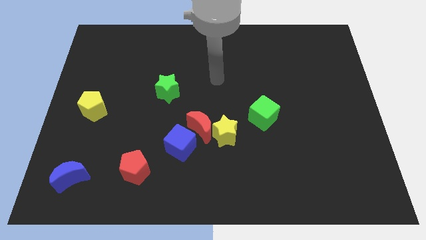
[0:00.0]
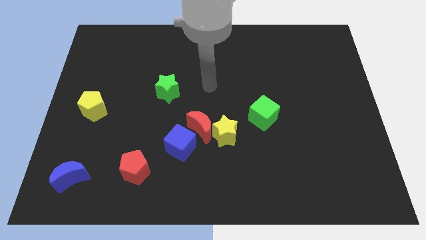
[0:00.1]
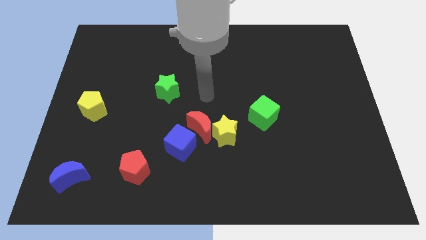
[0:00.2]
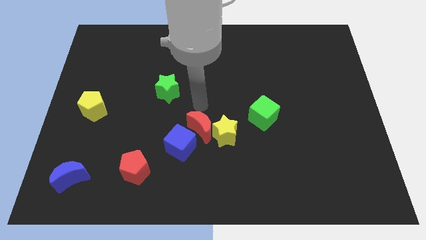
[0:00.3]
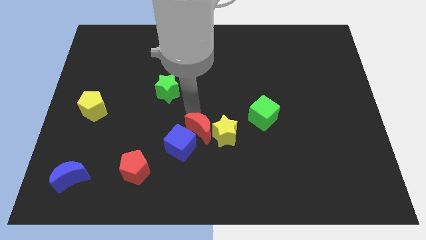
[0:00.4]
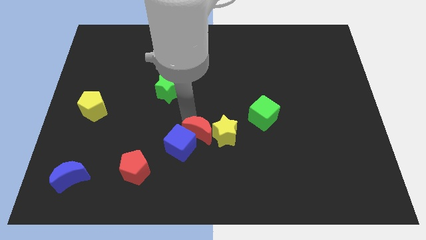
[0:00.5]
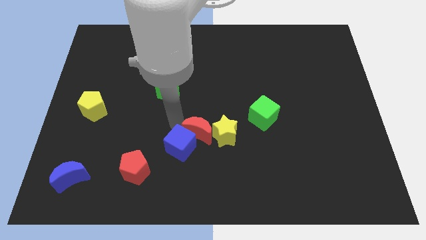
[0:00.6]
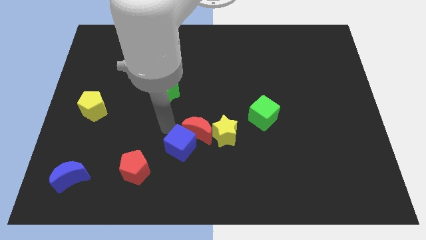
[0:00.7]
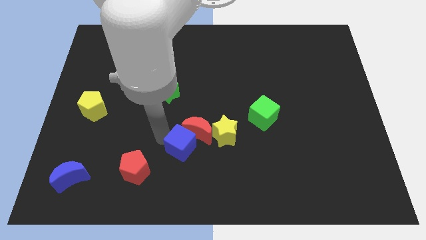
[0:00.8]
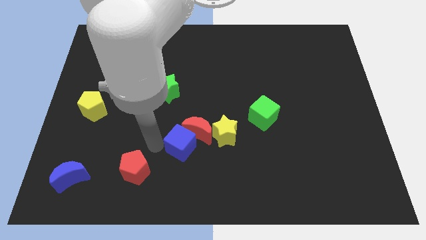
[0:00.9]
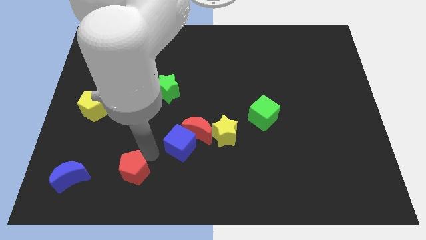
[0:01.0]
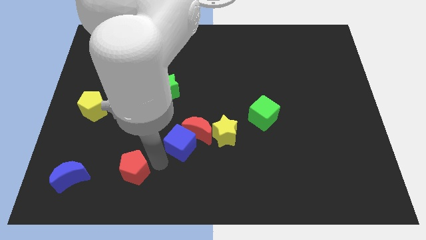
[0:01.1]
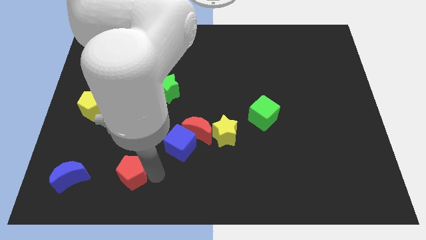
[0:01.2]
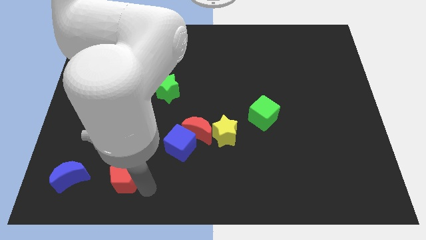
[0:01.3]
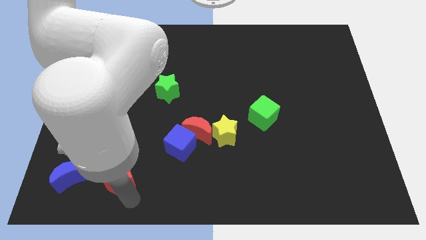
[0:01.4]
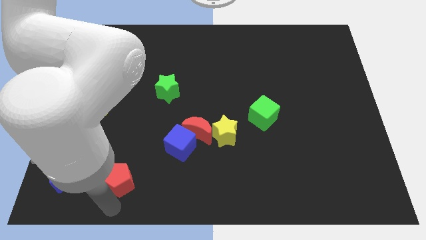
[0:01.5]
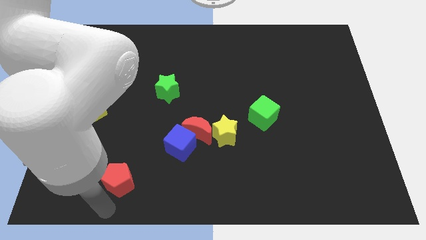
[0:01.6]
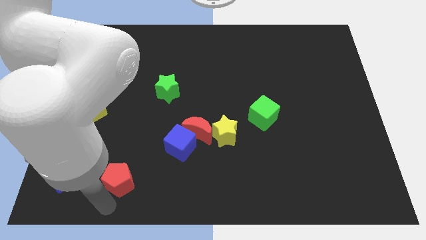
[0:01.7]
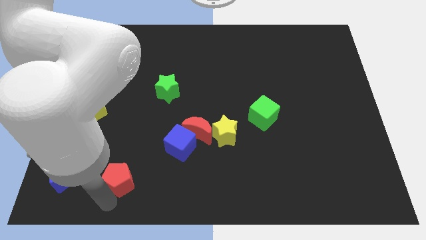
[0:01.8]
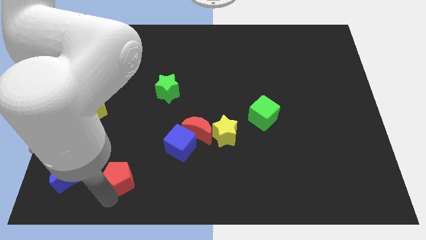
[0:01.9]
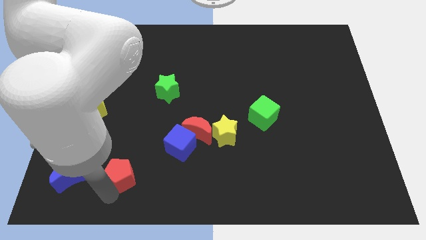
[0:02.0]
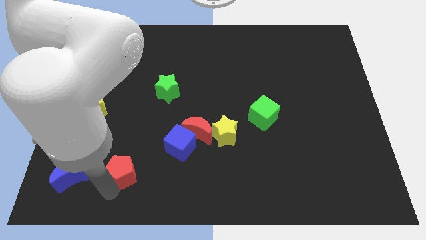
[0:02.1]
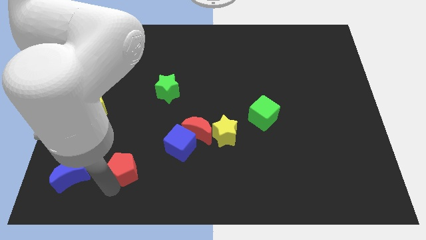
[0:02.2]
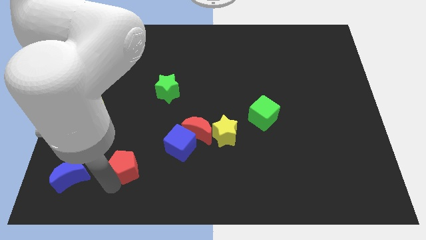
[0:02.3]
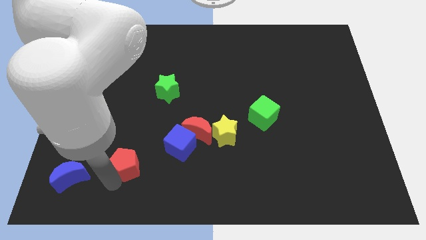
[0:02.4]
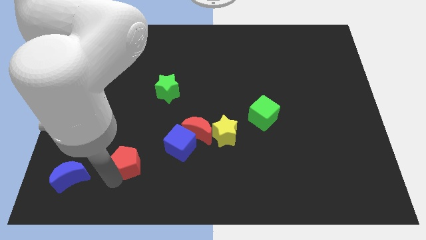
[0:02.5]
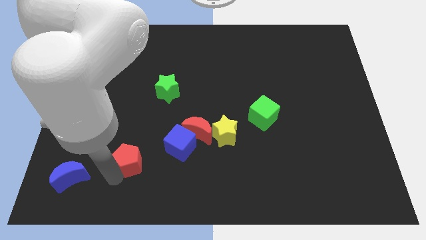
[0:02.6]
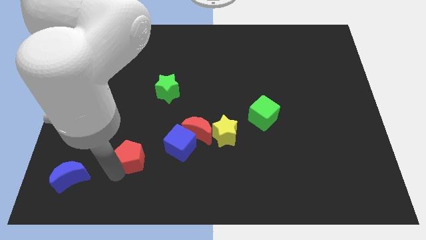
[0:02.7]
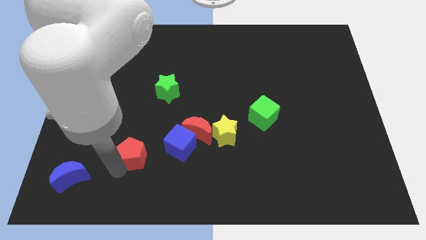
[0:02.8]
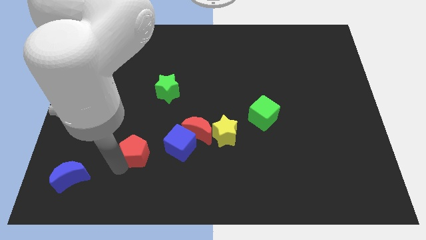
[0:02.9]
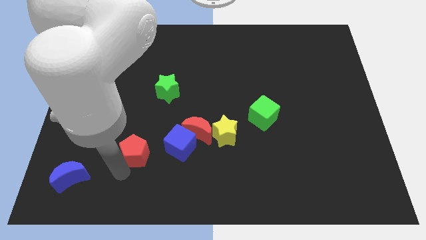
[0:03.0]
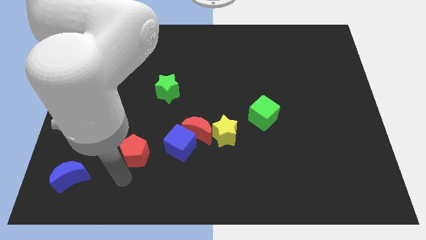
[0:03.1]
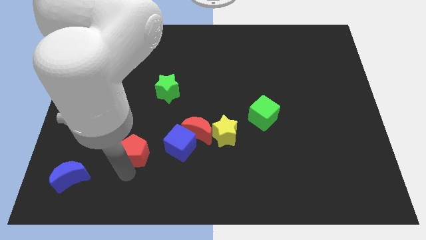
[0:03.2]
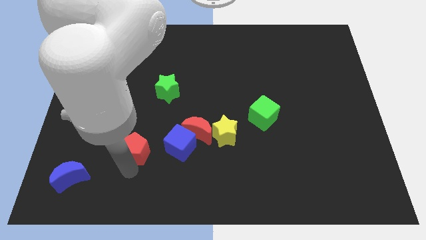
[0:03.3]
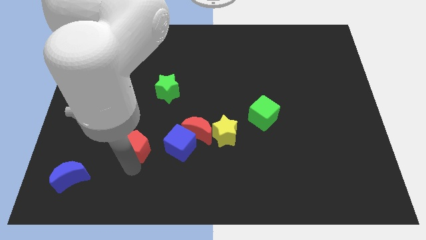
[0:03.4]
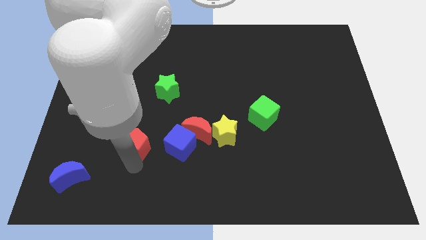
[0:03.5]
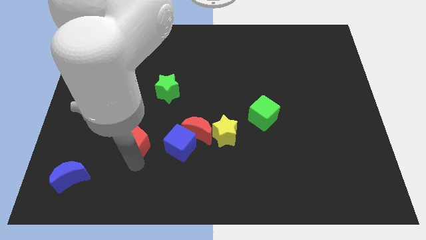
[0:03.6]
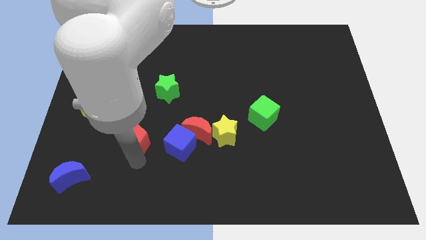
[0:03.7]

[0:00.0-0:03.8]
slightly push the red pentagon upwards

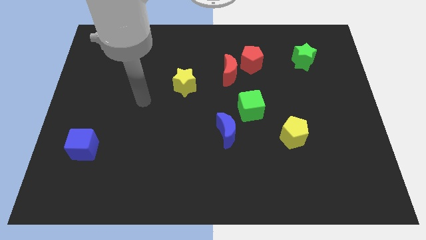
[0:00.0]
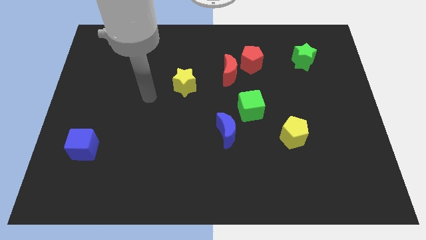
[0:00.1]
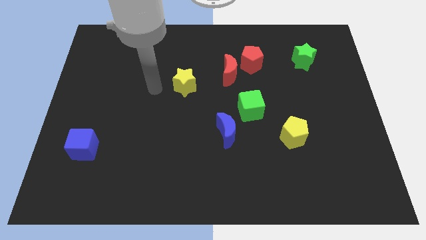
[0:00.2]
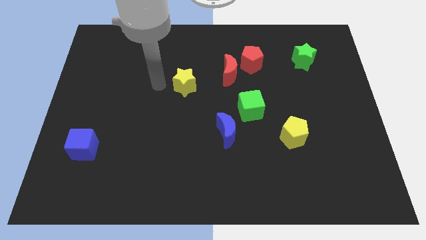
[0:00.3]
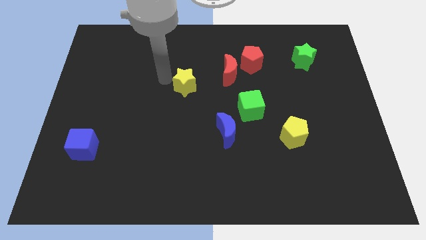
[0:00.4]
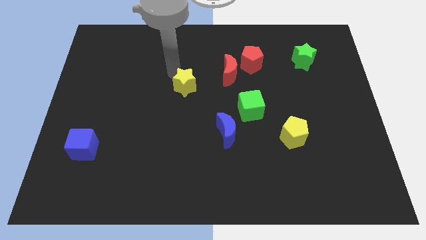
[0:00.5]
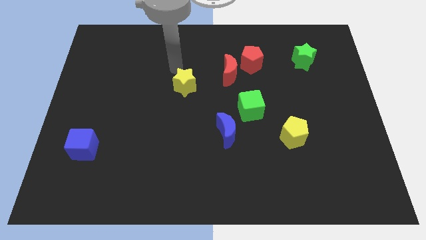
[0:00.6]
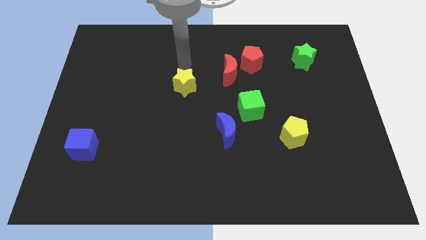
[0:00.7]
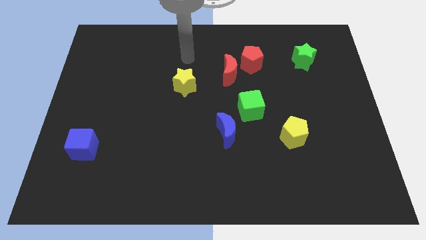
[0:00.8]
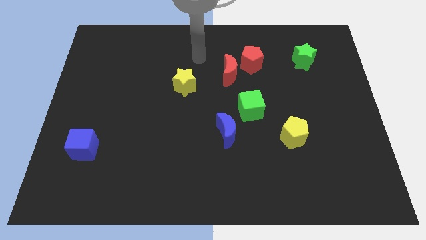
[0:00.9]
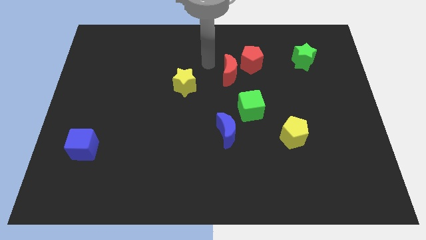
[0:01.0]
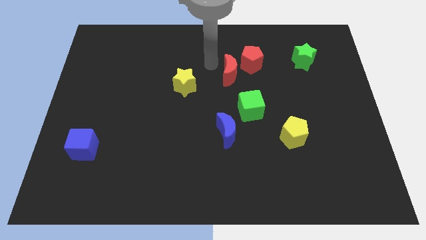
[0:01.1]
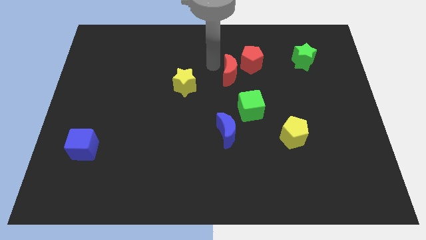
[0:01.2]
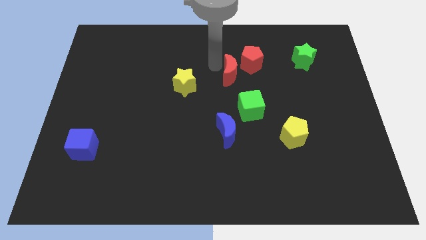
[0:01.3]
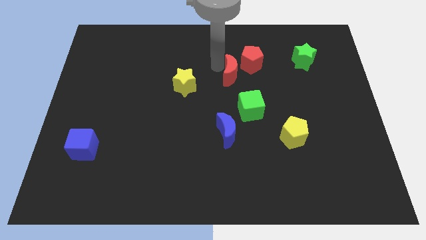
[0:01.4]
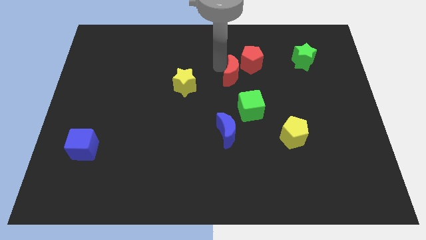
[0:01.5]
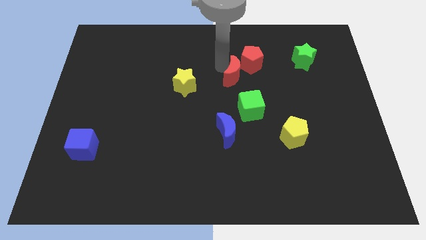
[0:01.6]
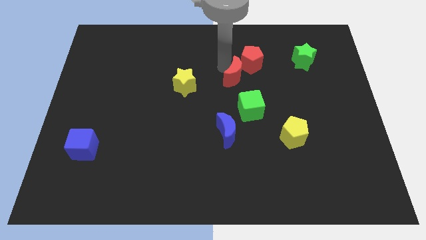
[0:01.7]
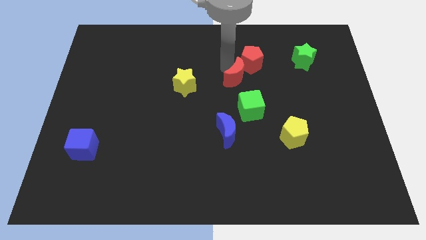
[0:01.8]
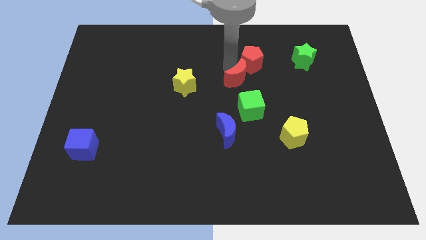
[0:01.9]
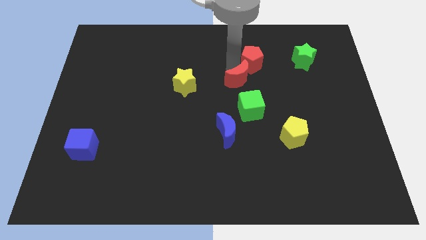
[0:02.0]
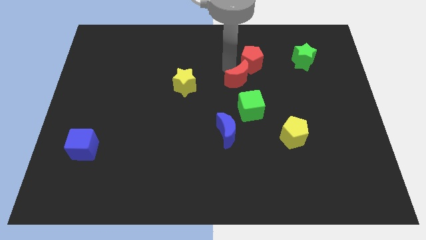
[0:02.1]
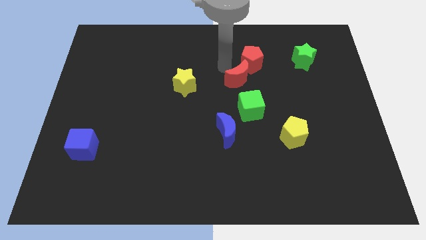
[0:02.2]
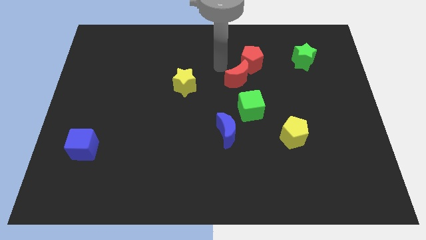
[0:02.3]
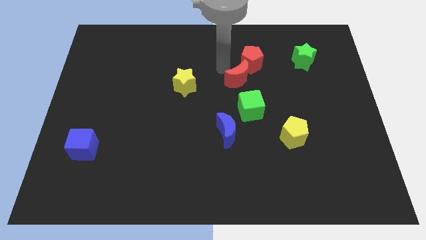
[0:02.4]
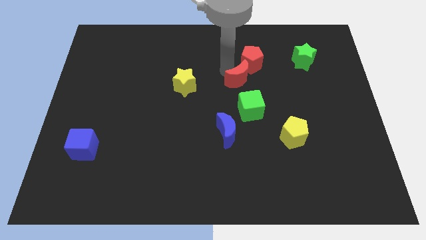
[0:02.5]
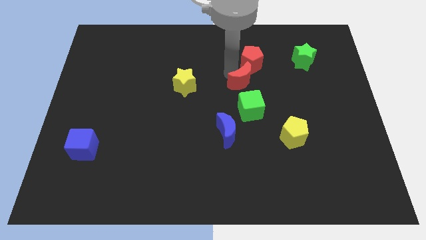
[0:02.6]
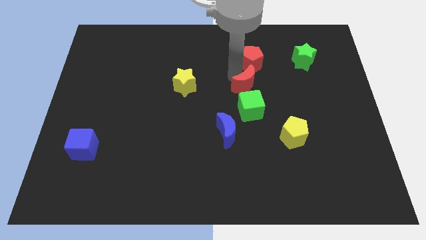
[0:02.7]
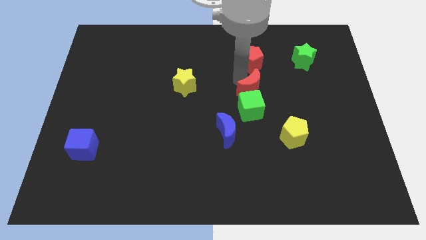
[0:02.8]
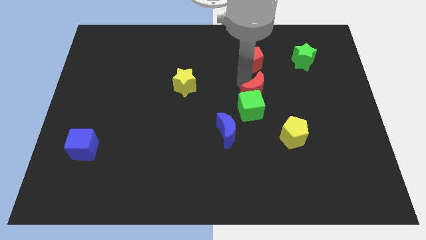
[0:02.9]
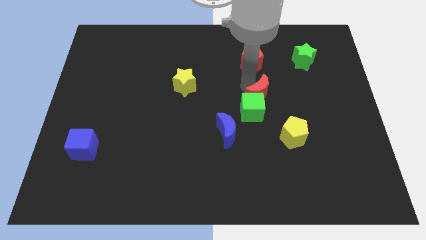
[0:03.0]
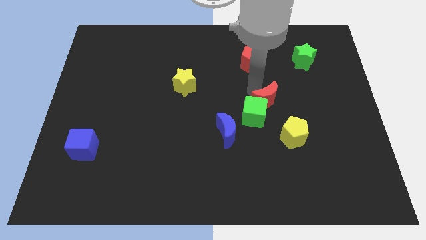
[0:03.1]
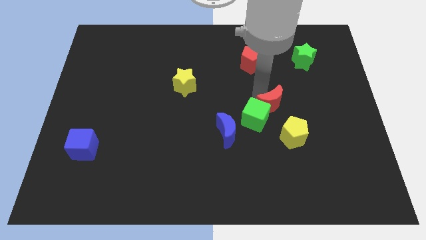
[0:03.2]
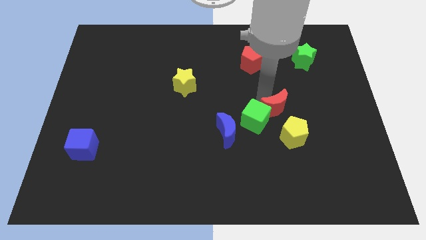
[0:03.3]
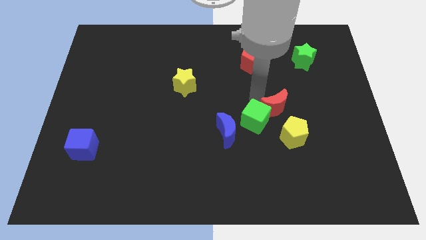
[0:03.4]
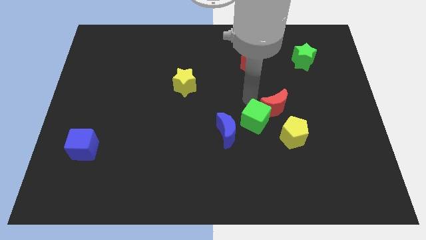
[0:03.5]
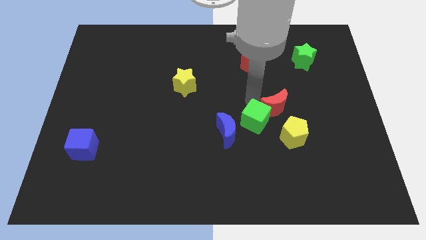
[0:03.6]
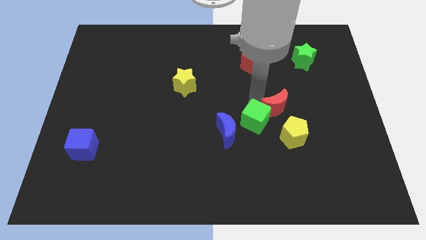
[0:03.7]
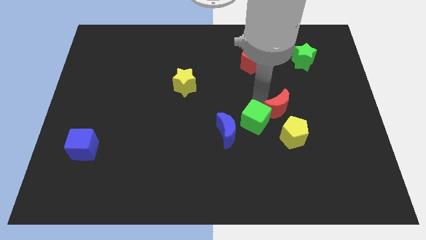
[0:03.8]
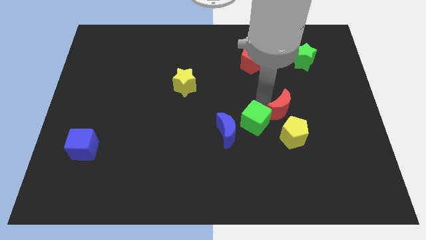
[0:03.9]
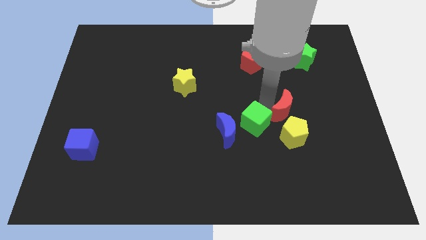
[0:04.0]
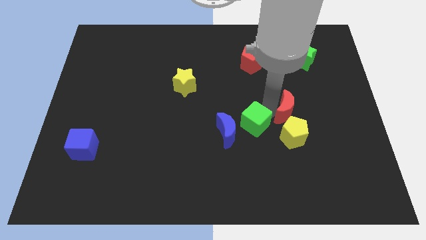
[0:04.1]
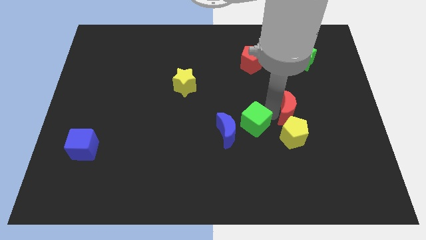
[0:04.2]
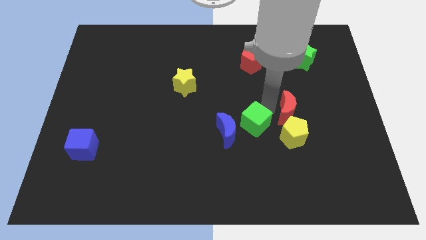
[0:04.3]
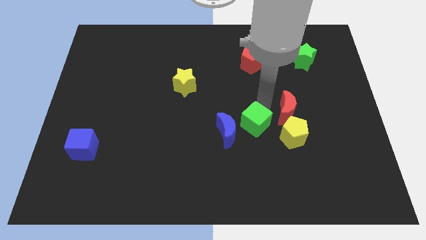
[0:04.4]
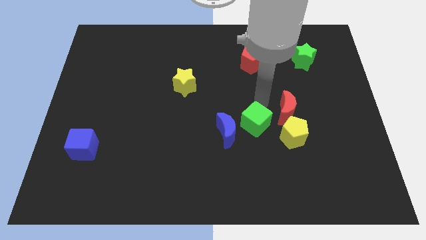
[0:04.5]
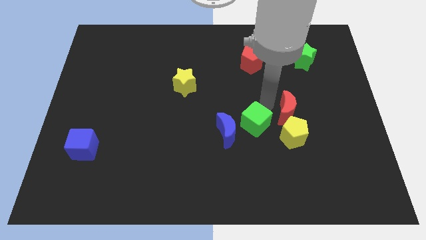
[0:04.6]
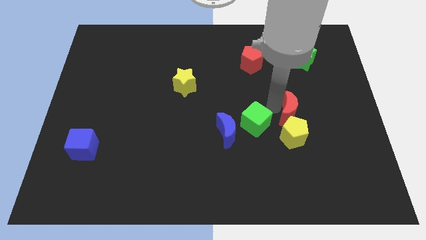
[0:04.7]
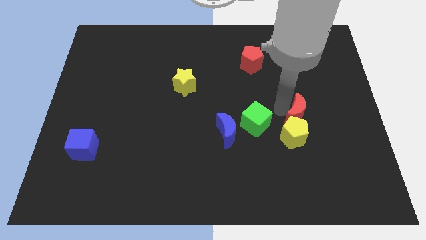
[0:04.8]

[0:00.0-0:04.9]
push the red moon downwards and to the right diagonally
